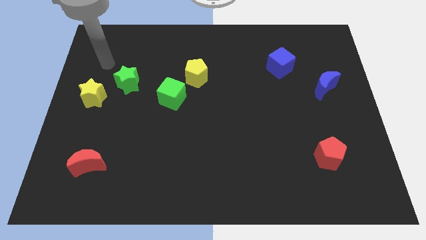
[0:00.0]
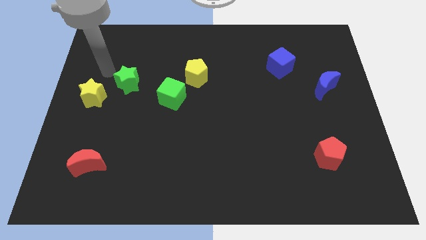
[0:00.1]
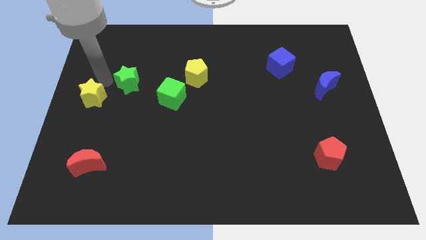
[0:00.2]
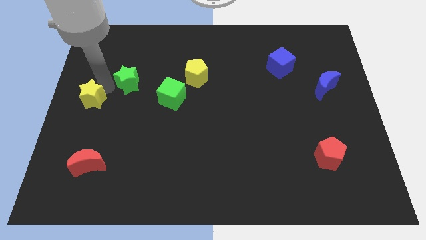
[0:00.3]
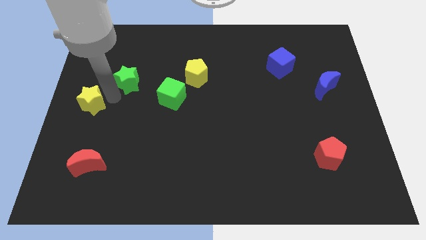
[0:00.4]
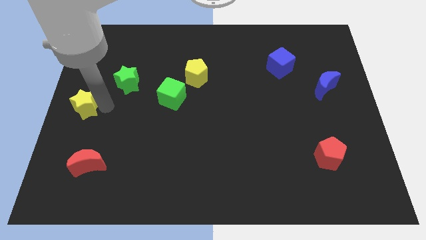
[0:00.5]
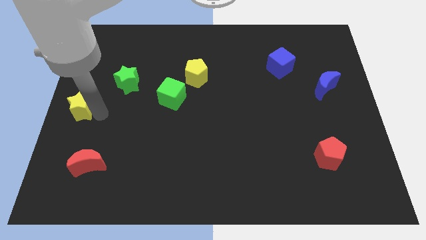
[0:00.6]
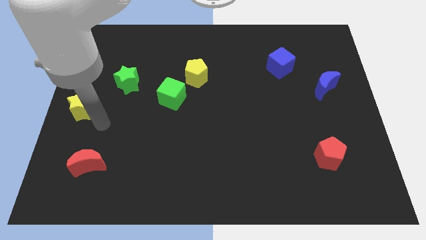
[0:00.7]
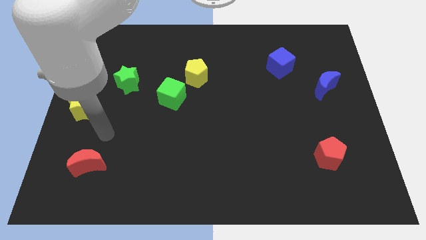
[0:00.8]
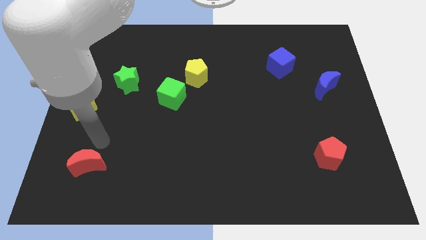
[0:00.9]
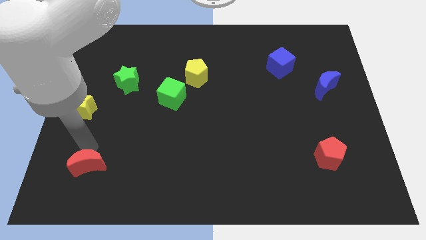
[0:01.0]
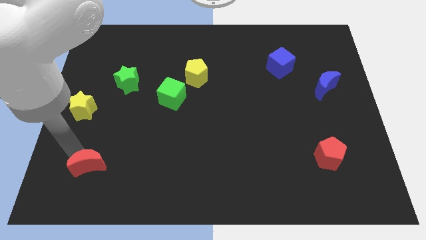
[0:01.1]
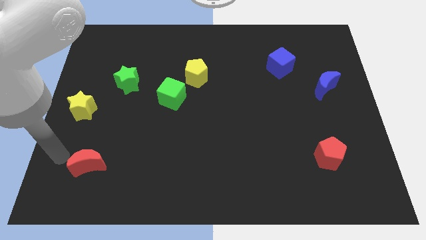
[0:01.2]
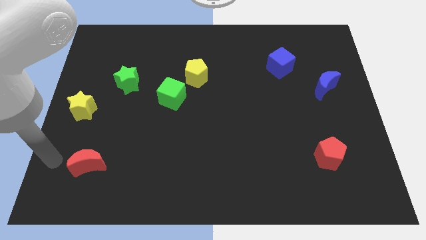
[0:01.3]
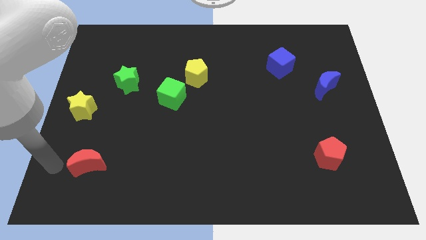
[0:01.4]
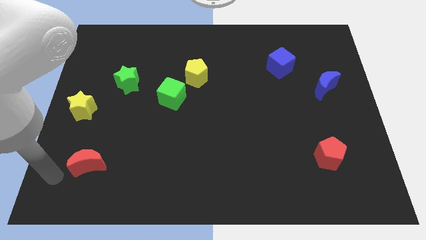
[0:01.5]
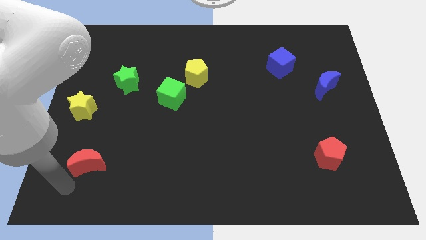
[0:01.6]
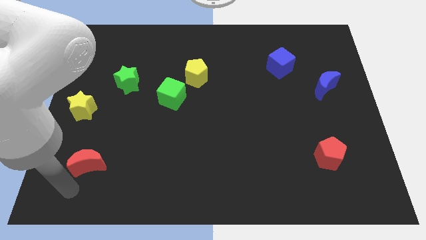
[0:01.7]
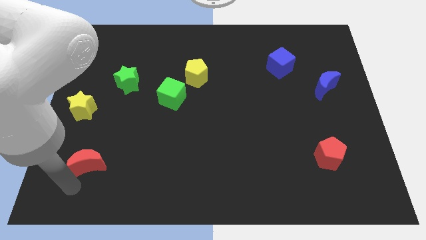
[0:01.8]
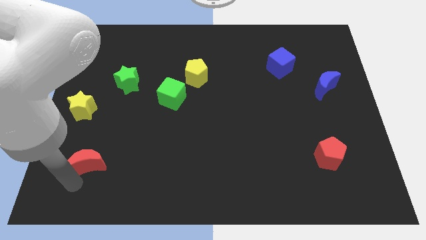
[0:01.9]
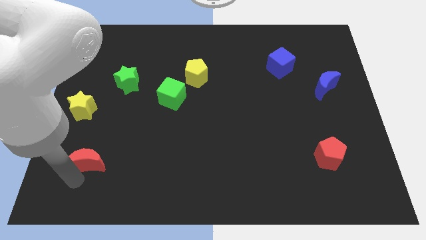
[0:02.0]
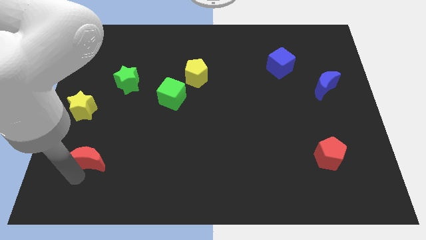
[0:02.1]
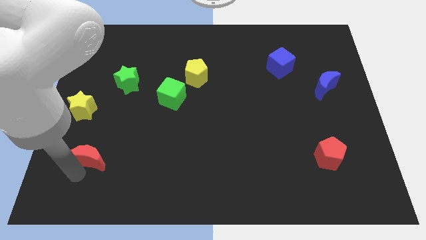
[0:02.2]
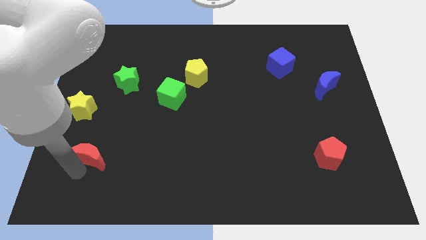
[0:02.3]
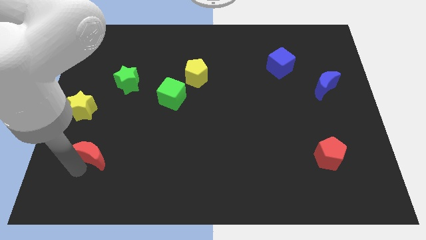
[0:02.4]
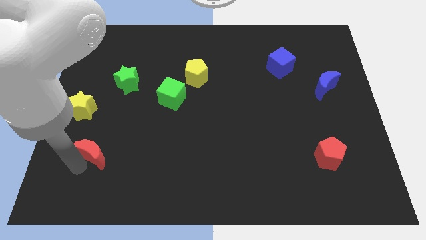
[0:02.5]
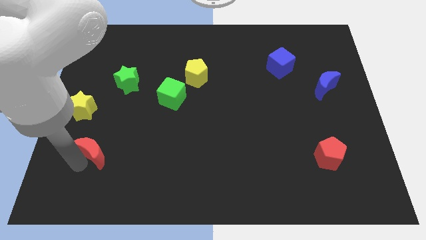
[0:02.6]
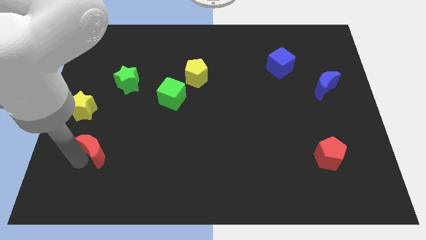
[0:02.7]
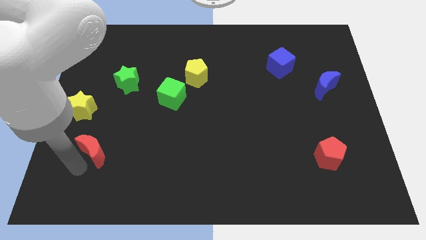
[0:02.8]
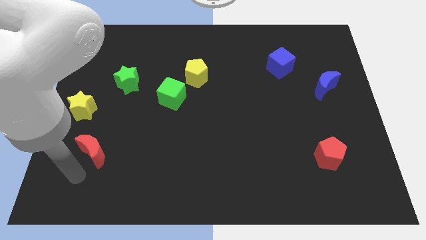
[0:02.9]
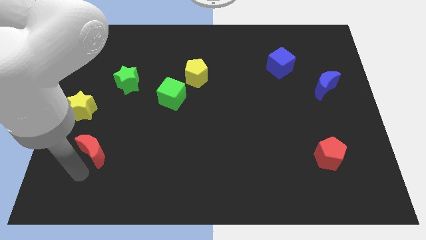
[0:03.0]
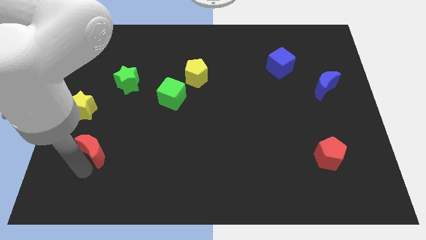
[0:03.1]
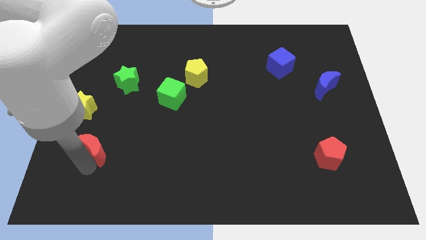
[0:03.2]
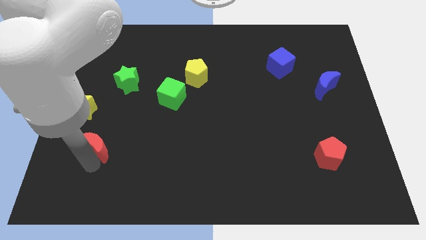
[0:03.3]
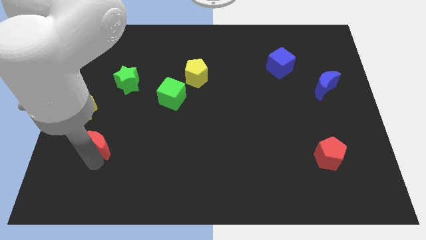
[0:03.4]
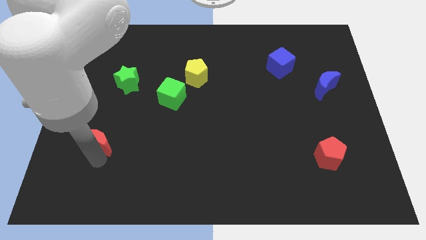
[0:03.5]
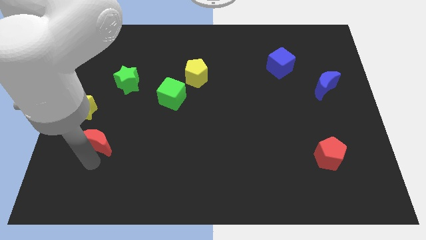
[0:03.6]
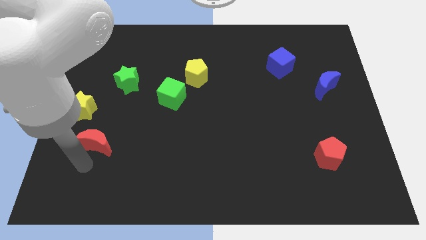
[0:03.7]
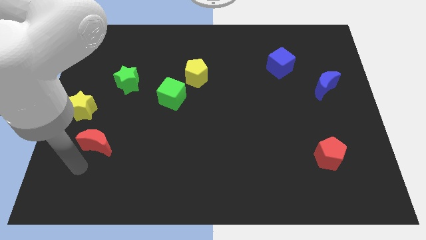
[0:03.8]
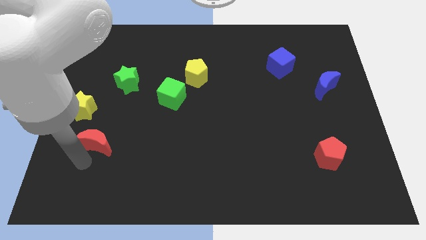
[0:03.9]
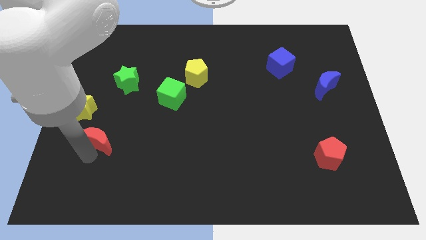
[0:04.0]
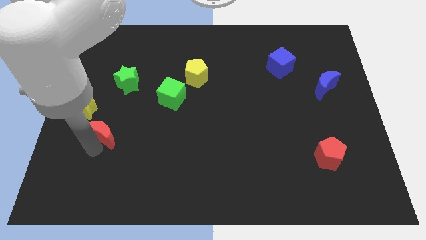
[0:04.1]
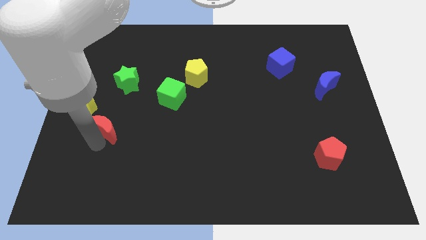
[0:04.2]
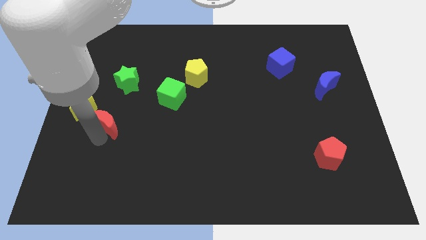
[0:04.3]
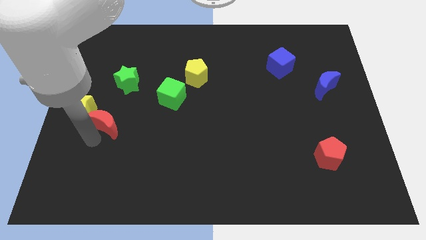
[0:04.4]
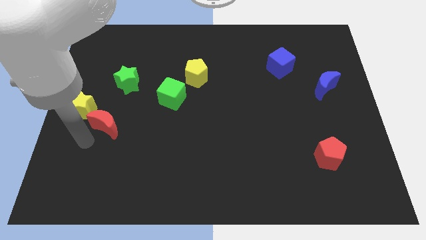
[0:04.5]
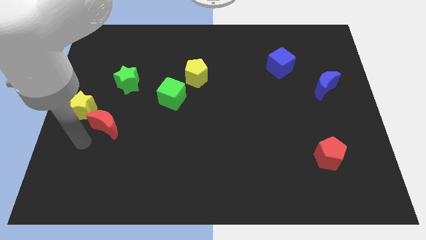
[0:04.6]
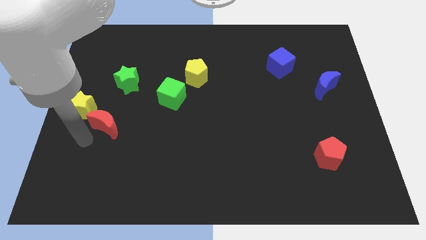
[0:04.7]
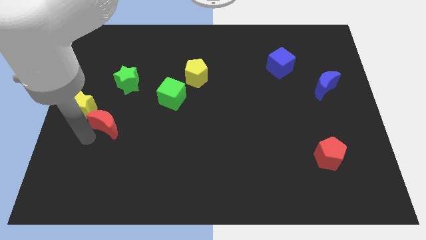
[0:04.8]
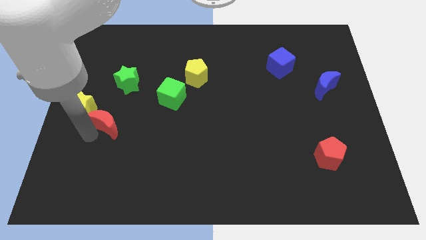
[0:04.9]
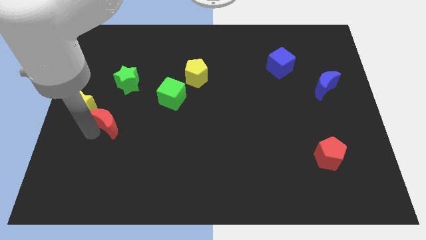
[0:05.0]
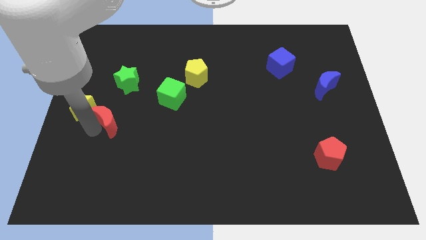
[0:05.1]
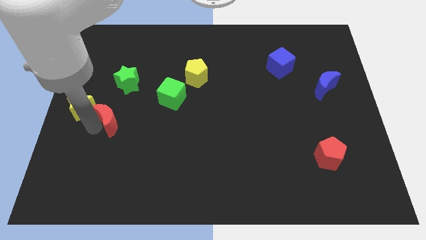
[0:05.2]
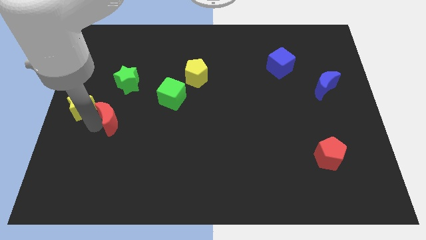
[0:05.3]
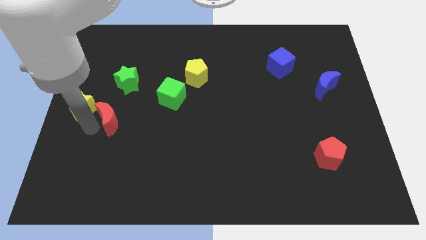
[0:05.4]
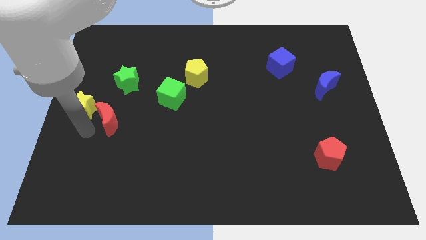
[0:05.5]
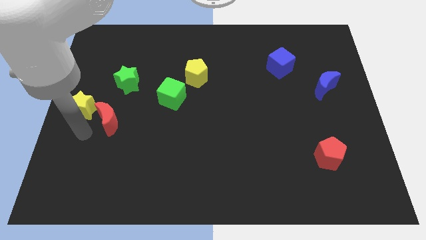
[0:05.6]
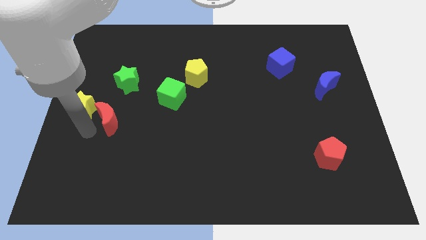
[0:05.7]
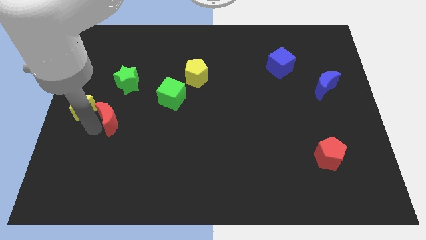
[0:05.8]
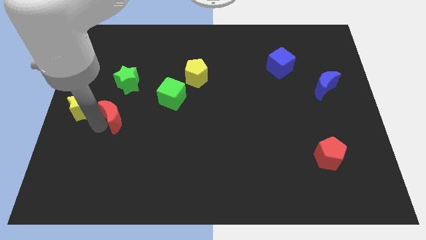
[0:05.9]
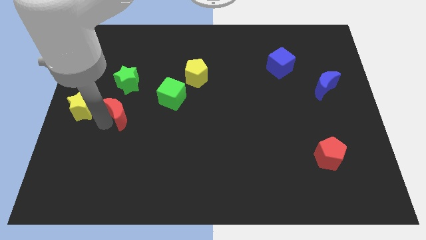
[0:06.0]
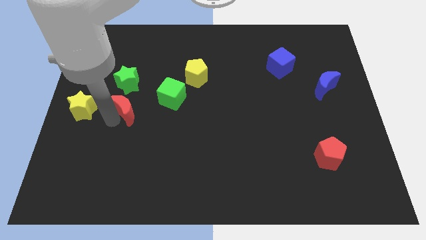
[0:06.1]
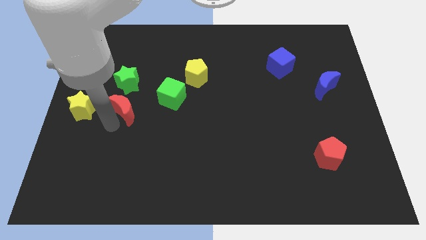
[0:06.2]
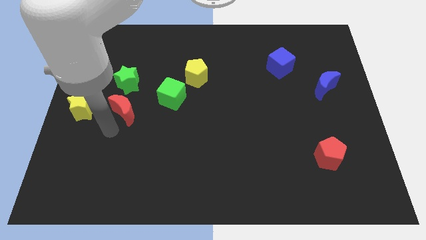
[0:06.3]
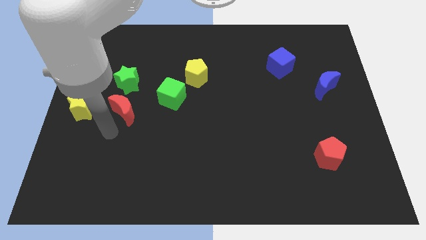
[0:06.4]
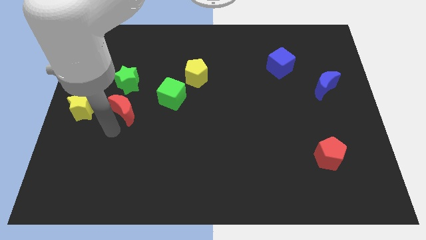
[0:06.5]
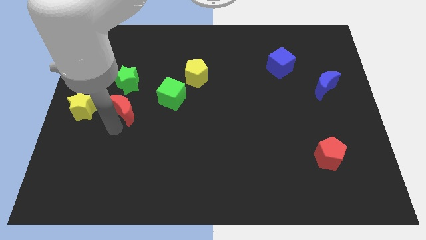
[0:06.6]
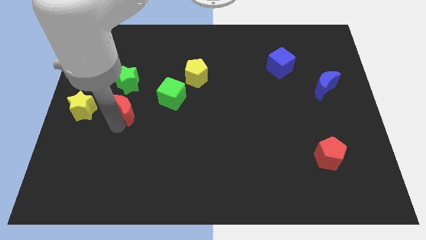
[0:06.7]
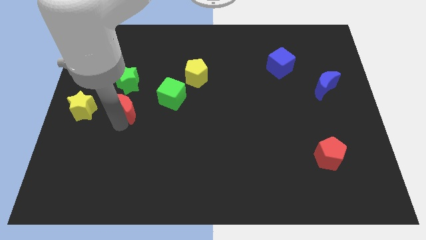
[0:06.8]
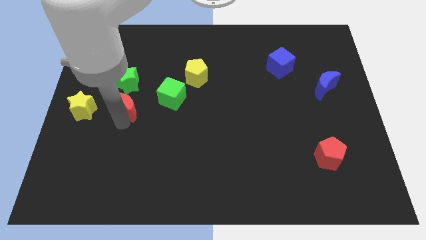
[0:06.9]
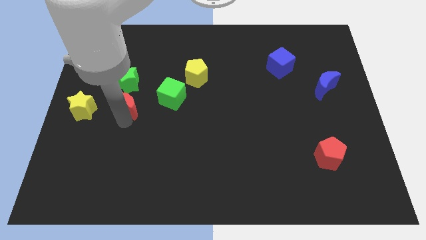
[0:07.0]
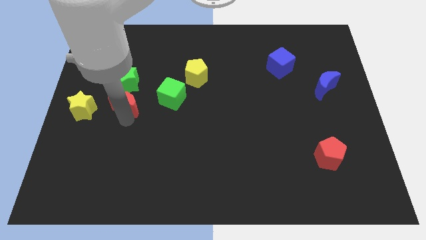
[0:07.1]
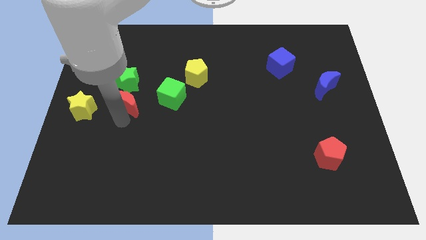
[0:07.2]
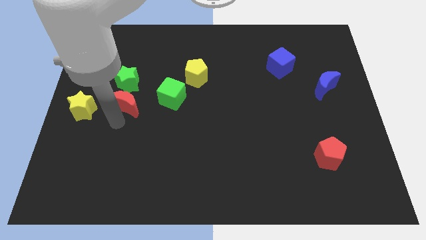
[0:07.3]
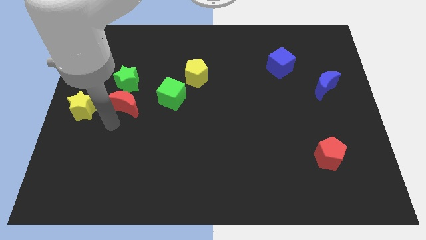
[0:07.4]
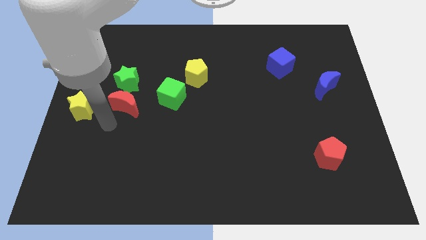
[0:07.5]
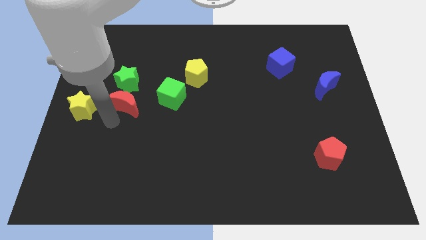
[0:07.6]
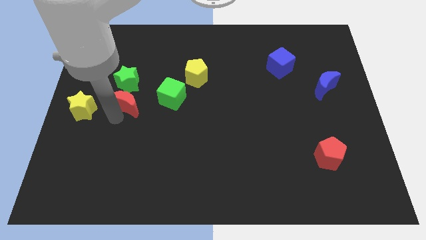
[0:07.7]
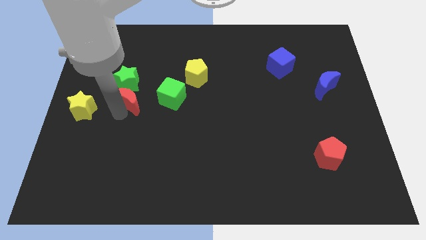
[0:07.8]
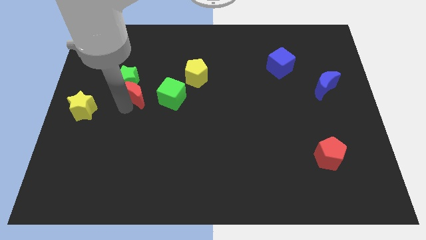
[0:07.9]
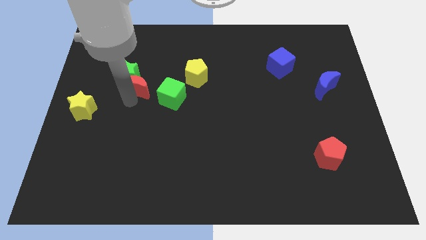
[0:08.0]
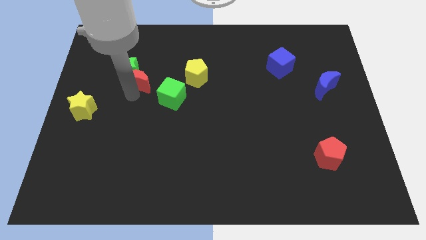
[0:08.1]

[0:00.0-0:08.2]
put the red moon to the left of the yellow pentagon
